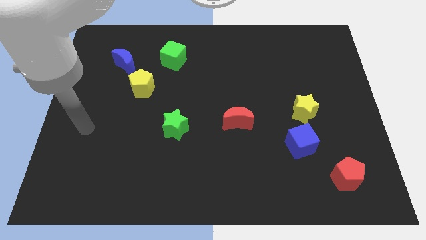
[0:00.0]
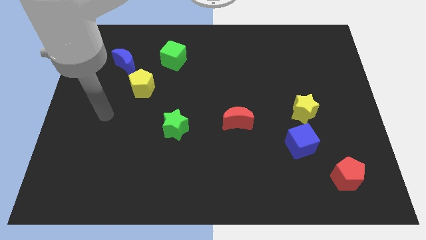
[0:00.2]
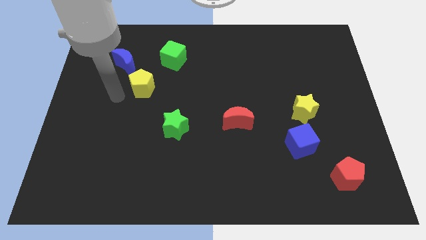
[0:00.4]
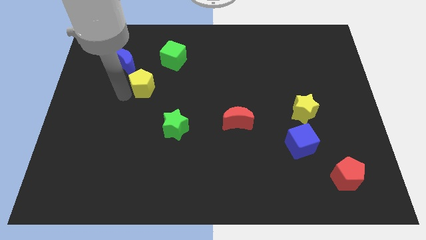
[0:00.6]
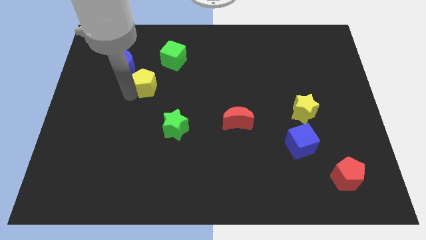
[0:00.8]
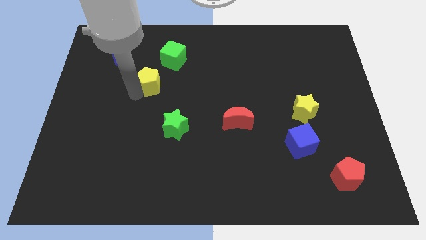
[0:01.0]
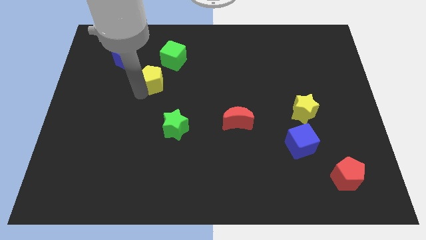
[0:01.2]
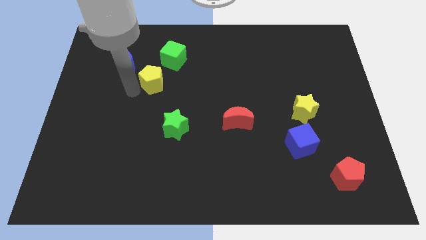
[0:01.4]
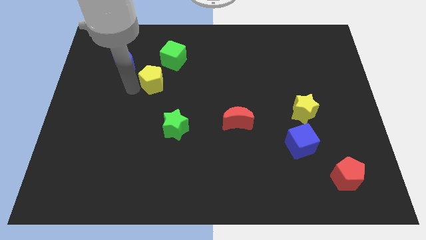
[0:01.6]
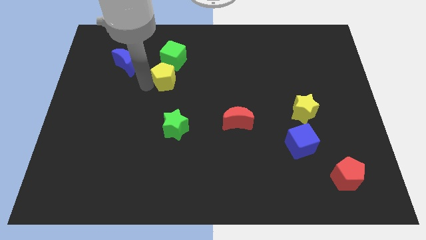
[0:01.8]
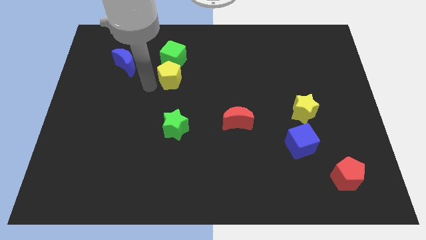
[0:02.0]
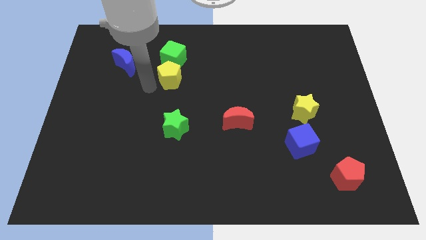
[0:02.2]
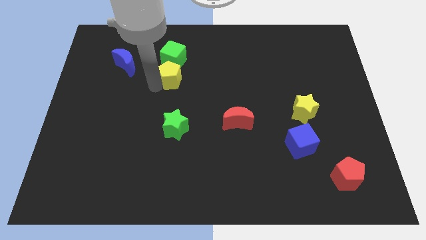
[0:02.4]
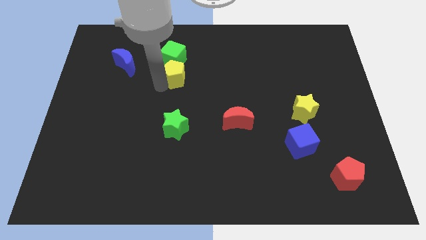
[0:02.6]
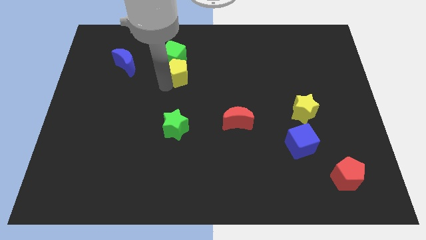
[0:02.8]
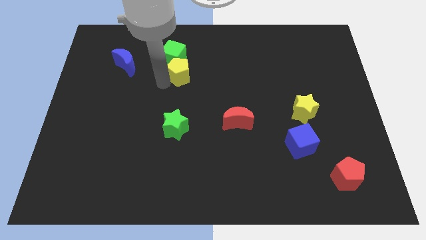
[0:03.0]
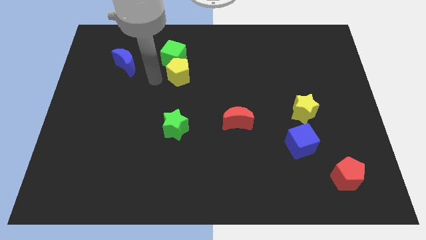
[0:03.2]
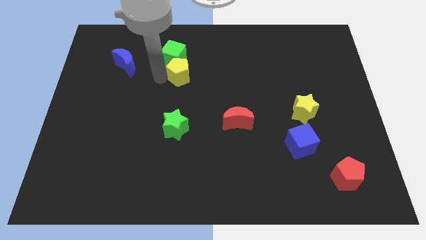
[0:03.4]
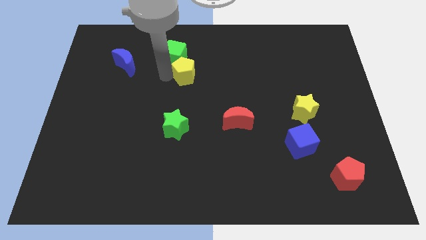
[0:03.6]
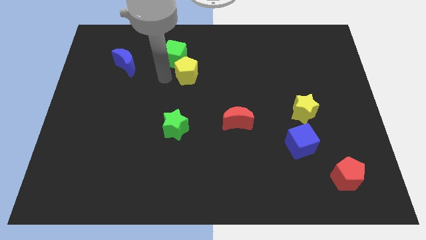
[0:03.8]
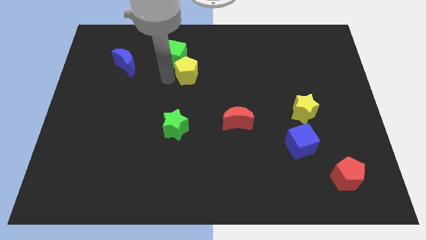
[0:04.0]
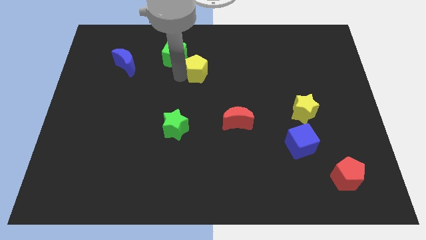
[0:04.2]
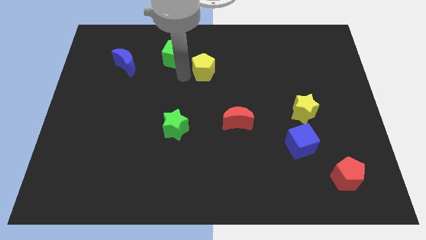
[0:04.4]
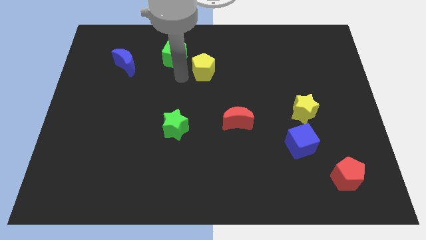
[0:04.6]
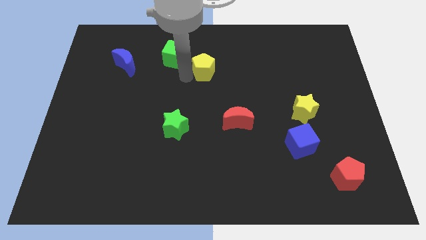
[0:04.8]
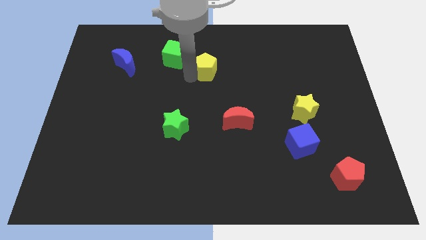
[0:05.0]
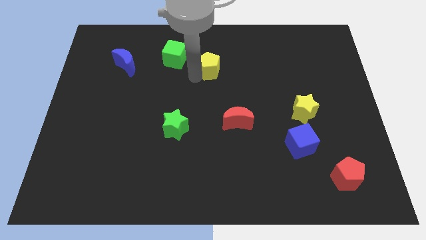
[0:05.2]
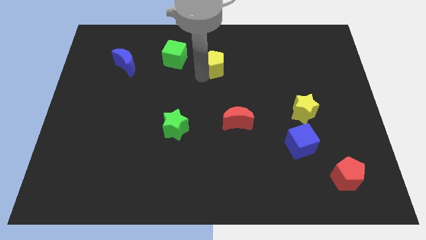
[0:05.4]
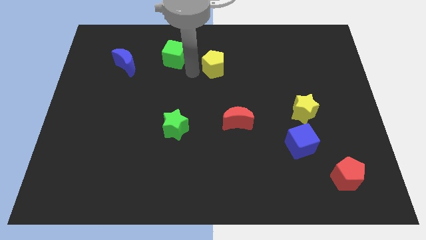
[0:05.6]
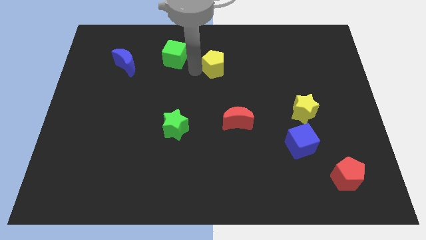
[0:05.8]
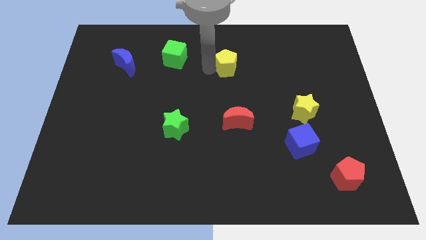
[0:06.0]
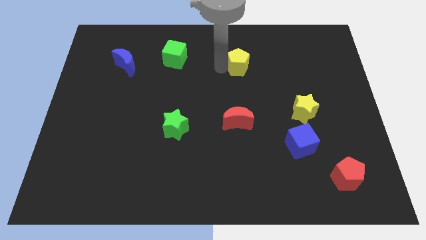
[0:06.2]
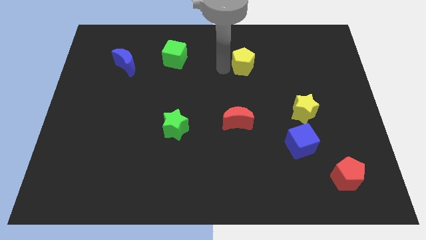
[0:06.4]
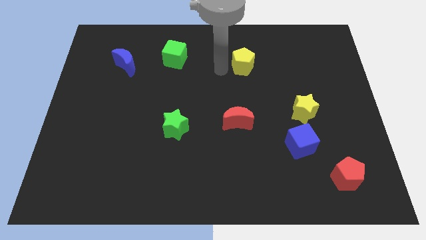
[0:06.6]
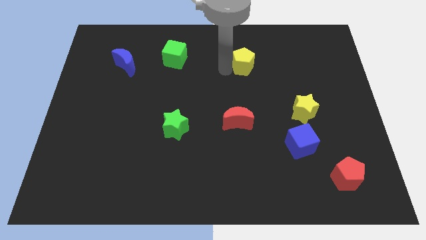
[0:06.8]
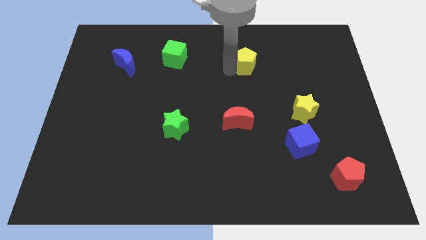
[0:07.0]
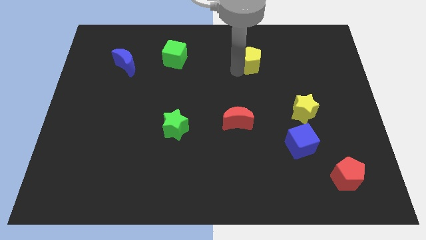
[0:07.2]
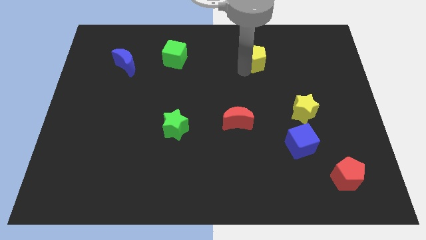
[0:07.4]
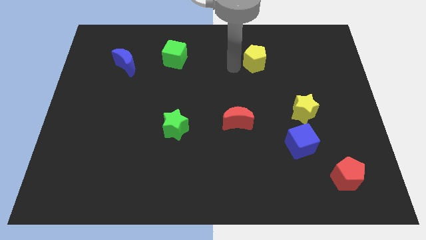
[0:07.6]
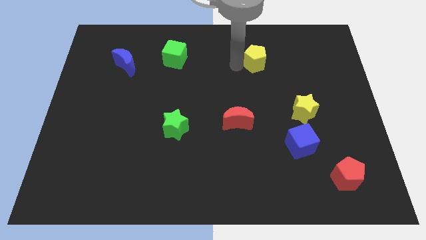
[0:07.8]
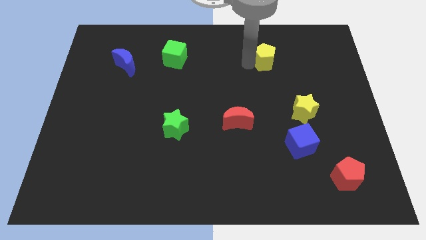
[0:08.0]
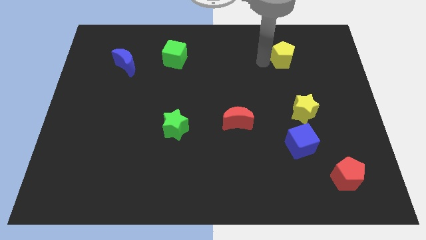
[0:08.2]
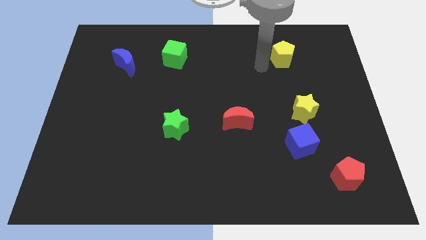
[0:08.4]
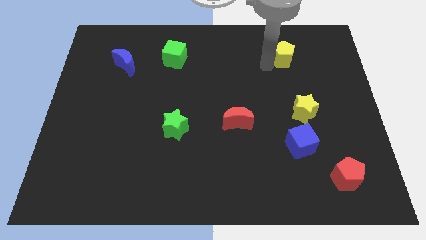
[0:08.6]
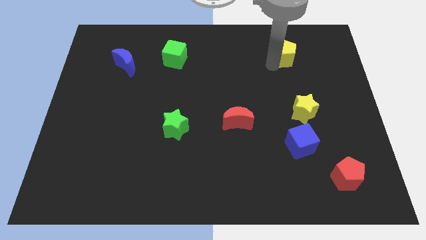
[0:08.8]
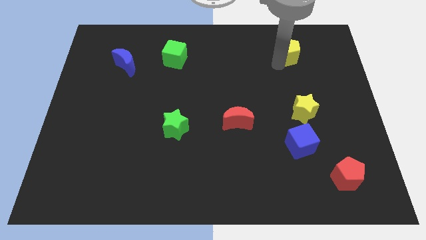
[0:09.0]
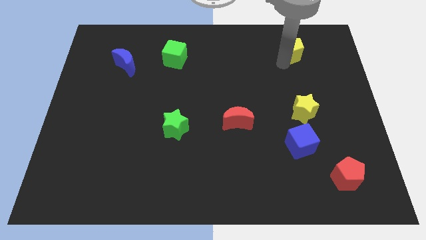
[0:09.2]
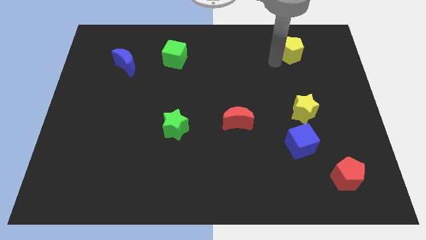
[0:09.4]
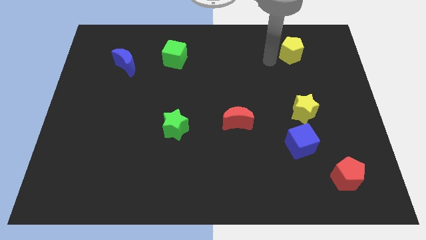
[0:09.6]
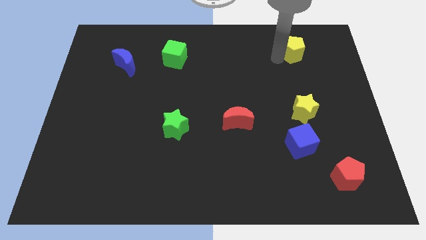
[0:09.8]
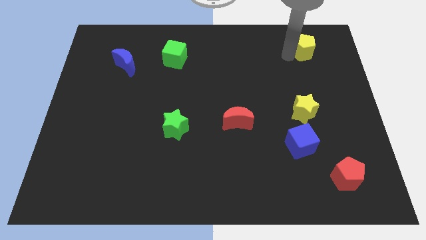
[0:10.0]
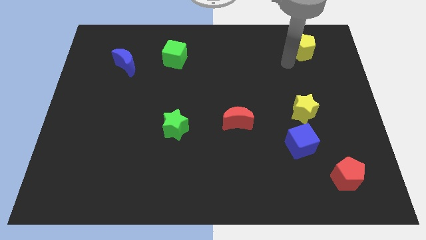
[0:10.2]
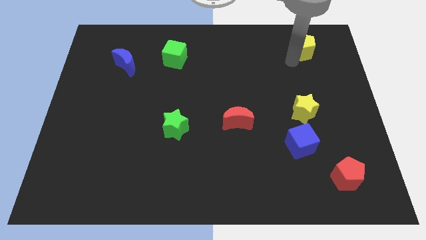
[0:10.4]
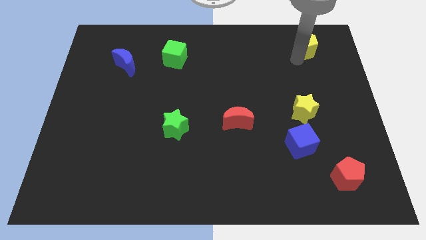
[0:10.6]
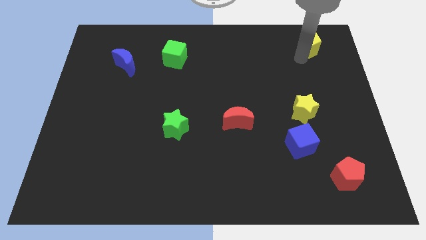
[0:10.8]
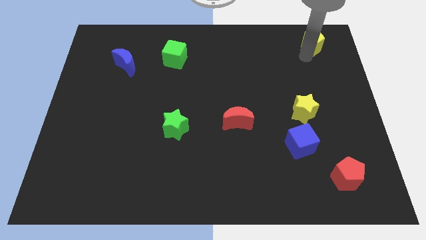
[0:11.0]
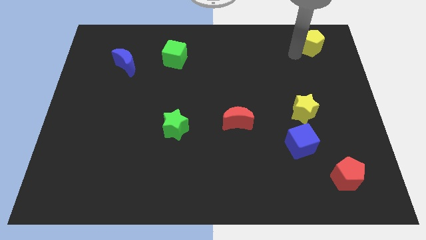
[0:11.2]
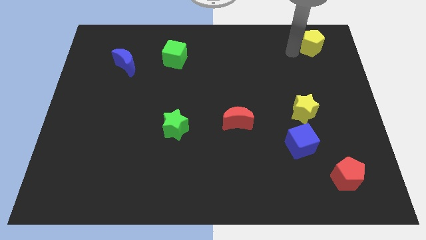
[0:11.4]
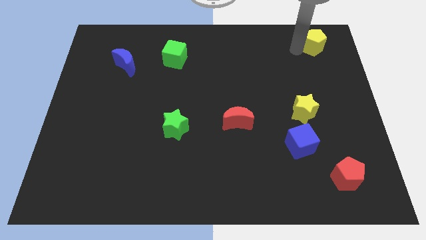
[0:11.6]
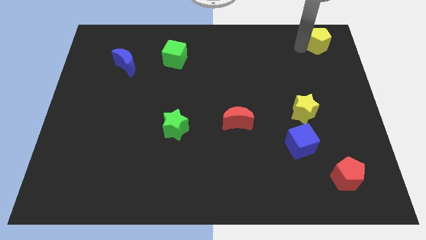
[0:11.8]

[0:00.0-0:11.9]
slide the yellow pentagon to the top right of the board

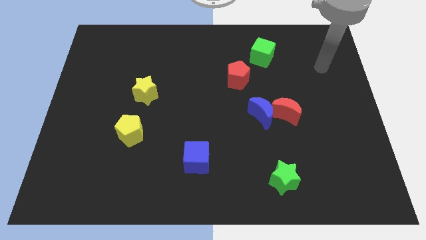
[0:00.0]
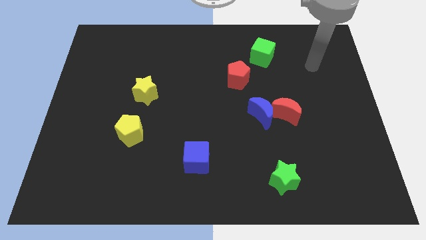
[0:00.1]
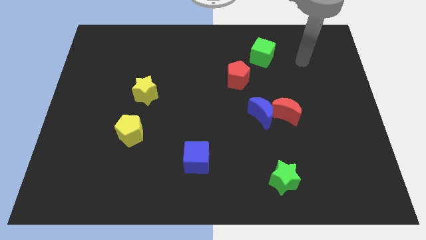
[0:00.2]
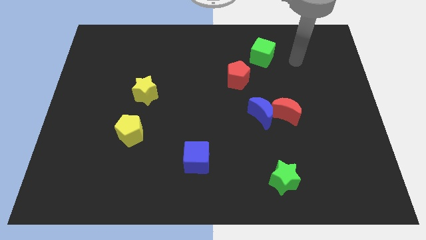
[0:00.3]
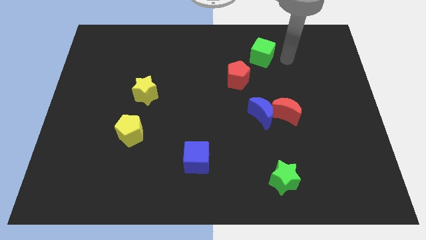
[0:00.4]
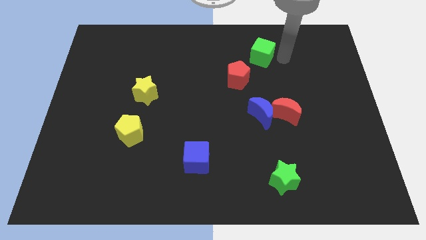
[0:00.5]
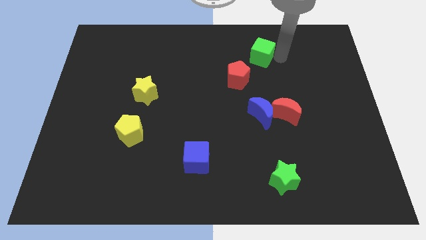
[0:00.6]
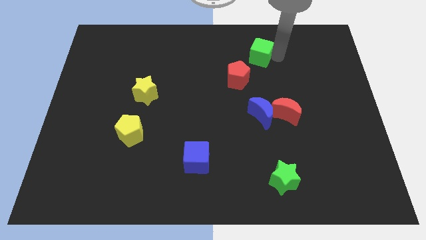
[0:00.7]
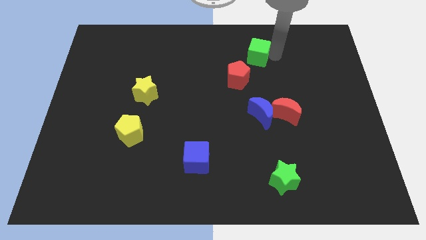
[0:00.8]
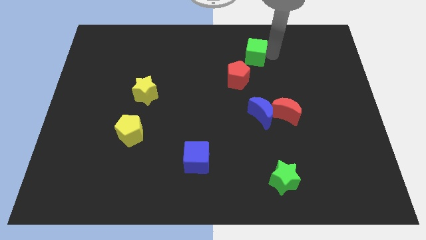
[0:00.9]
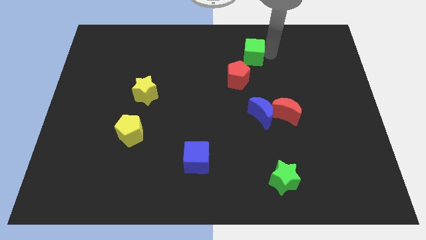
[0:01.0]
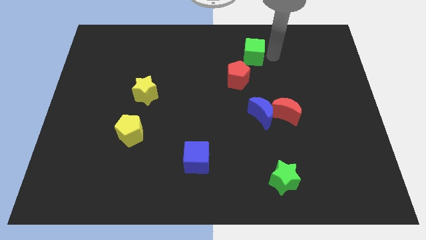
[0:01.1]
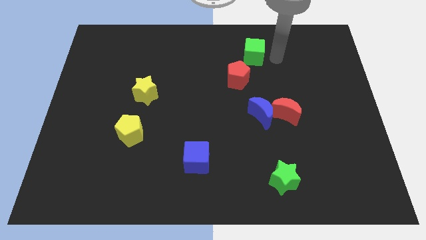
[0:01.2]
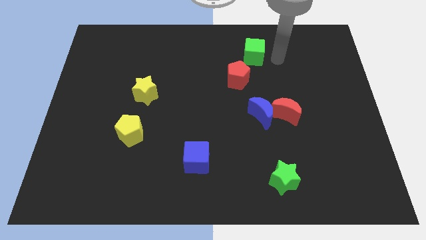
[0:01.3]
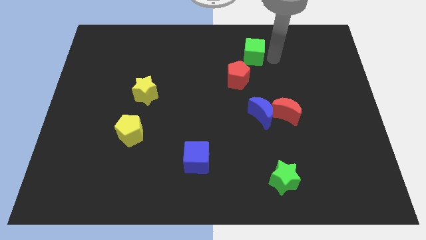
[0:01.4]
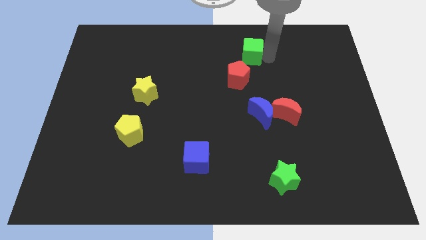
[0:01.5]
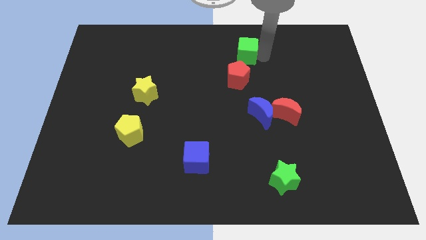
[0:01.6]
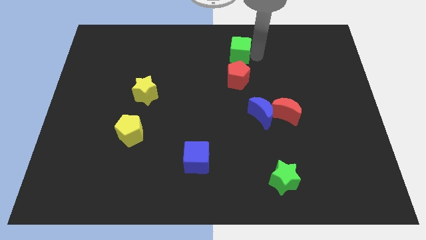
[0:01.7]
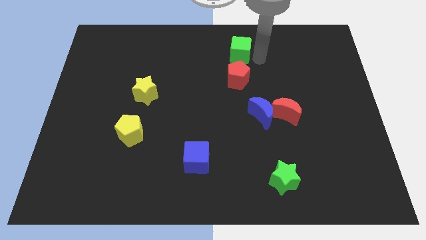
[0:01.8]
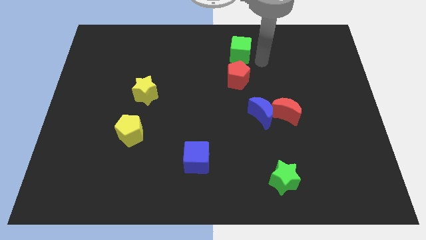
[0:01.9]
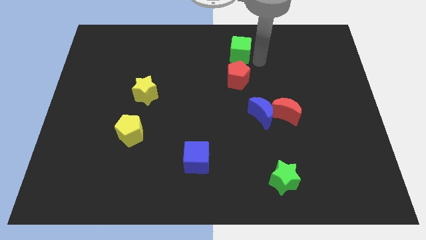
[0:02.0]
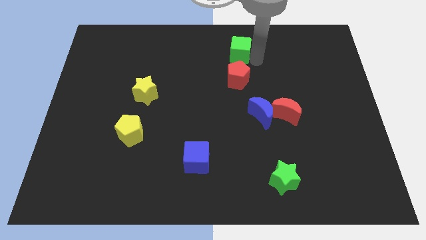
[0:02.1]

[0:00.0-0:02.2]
put the green cube to the top side
